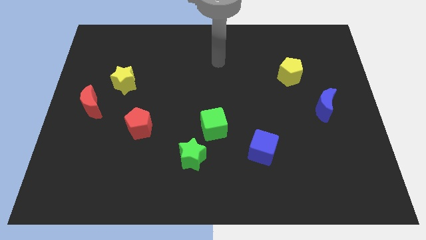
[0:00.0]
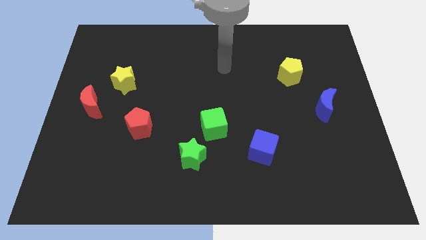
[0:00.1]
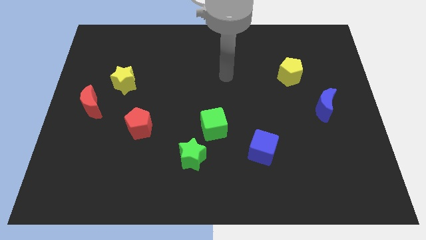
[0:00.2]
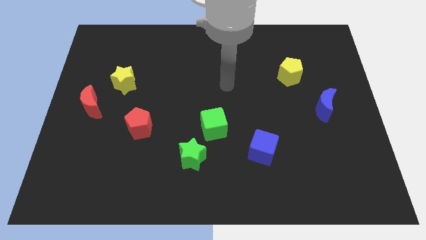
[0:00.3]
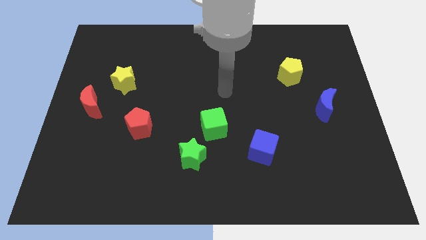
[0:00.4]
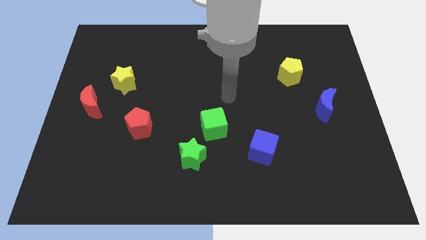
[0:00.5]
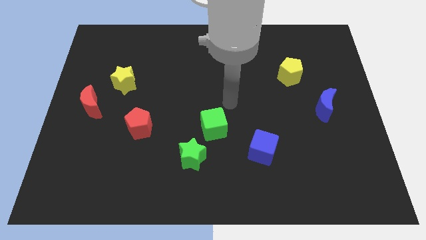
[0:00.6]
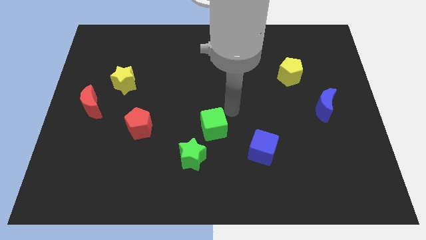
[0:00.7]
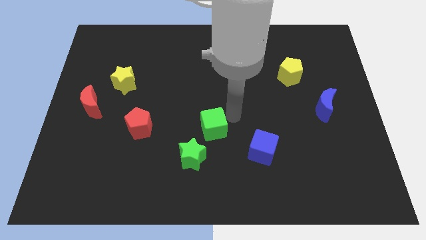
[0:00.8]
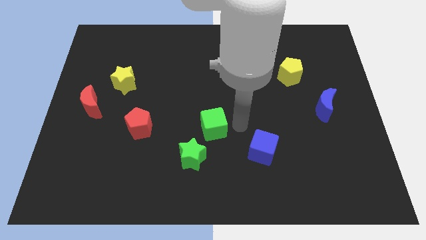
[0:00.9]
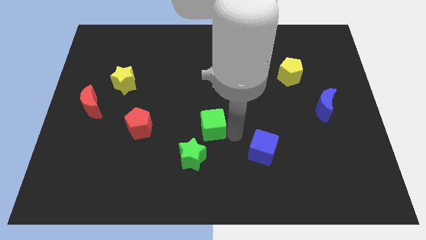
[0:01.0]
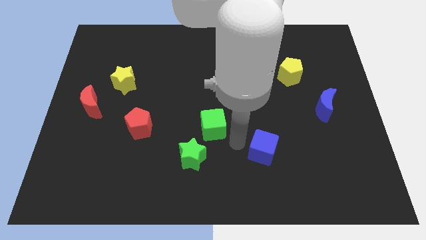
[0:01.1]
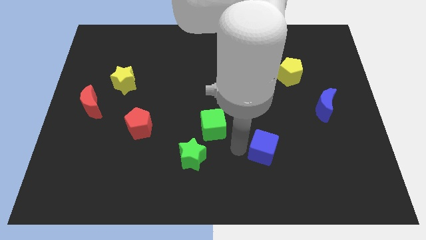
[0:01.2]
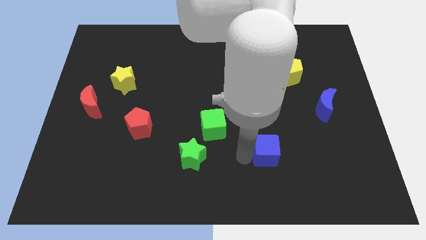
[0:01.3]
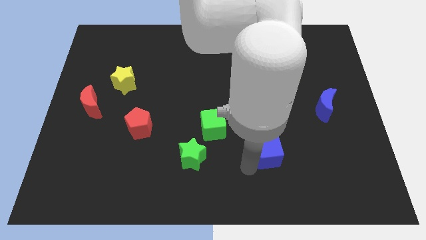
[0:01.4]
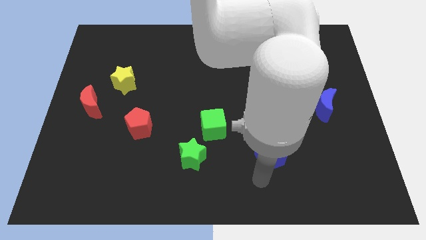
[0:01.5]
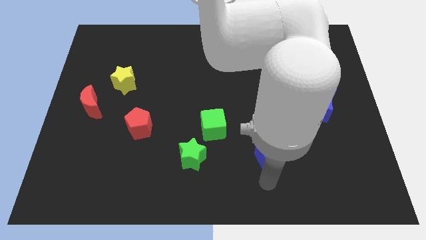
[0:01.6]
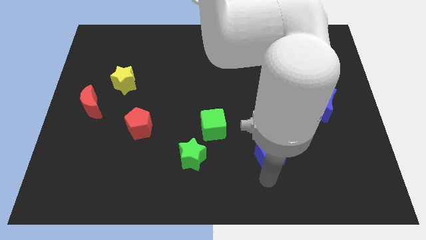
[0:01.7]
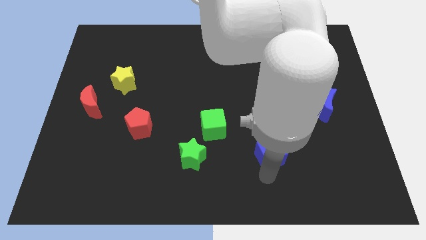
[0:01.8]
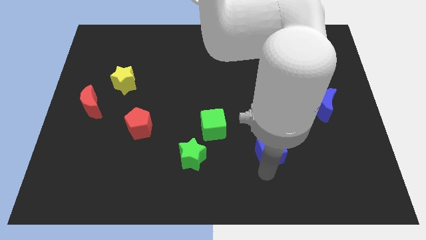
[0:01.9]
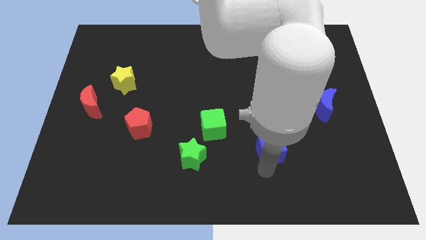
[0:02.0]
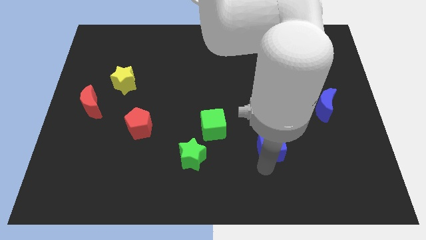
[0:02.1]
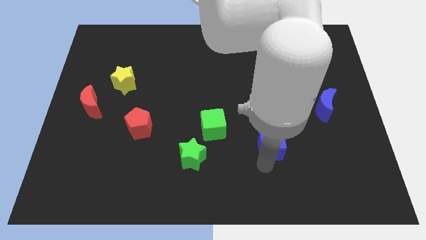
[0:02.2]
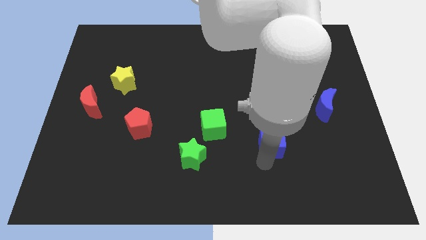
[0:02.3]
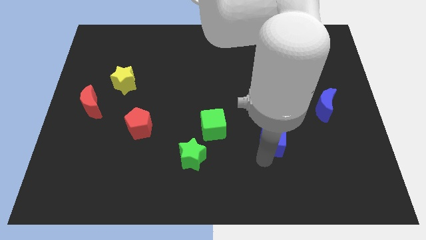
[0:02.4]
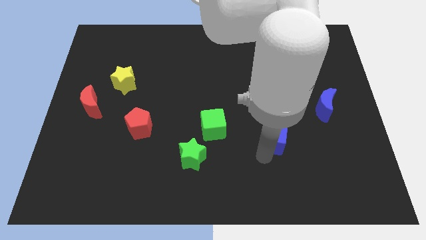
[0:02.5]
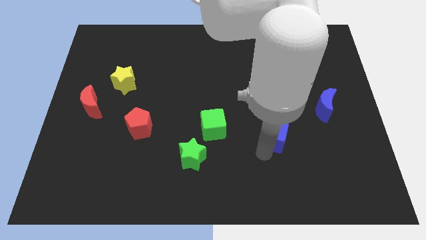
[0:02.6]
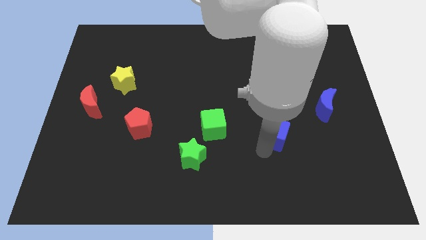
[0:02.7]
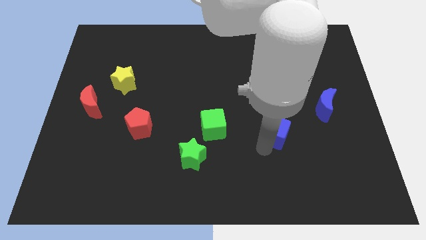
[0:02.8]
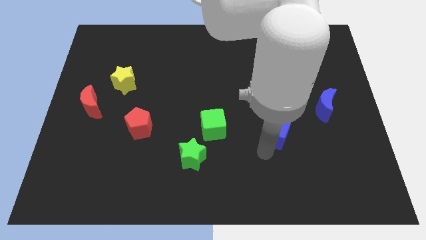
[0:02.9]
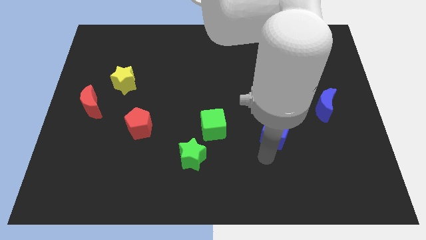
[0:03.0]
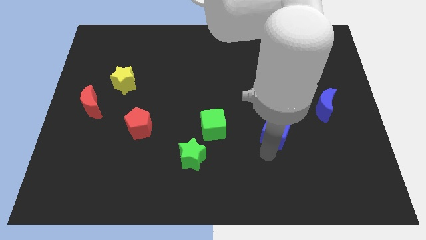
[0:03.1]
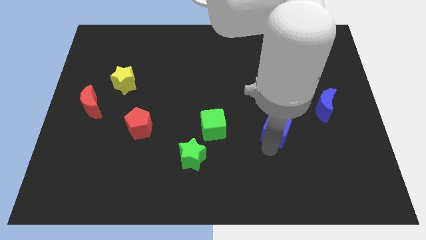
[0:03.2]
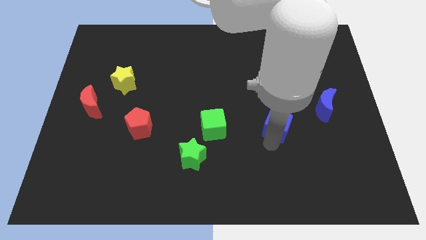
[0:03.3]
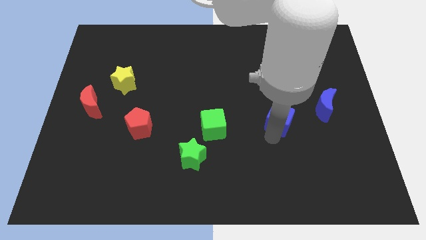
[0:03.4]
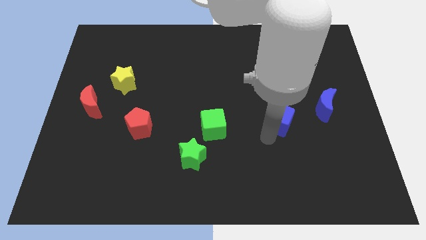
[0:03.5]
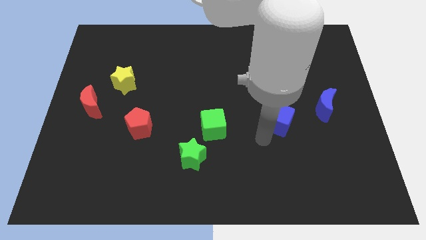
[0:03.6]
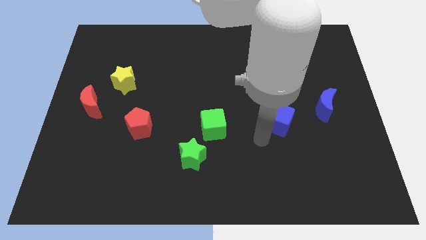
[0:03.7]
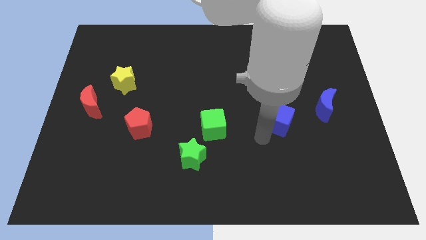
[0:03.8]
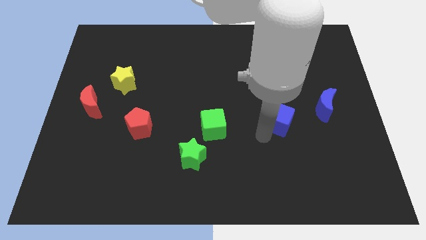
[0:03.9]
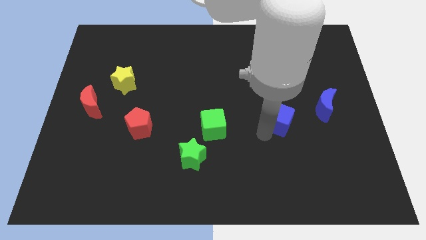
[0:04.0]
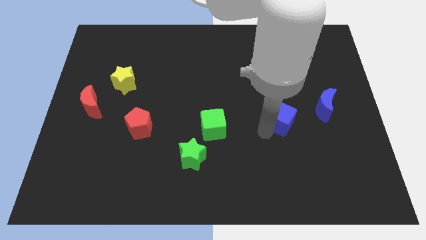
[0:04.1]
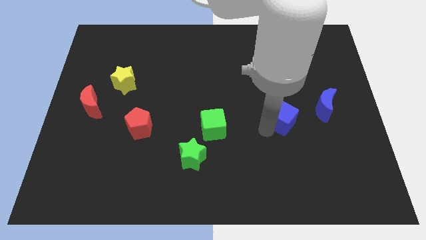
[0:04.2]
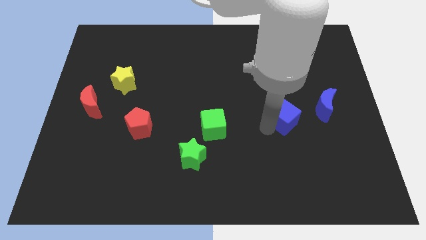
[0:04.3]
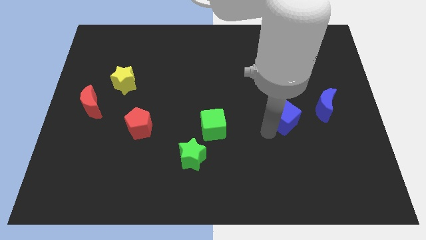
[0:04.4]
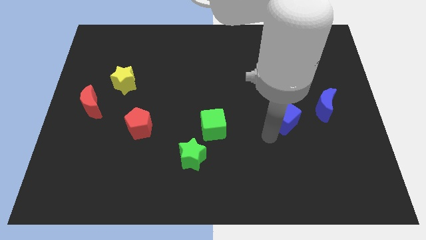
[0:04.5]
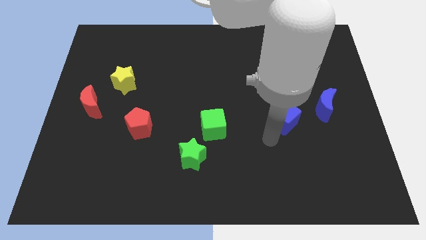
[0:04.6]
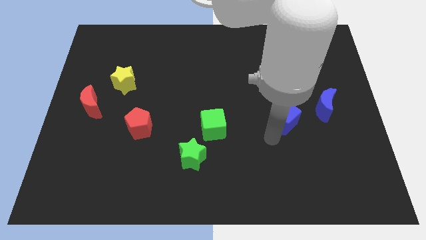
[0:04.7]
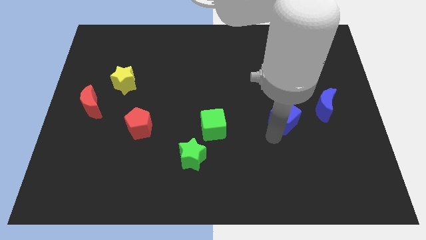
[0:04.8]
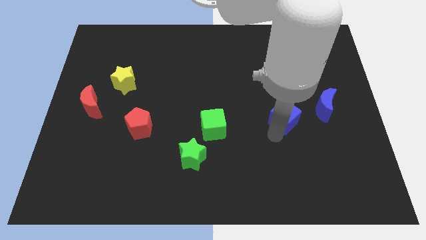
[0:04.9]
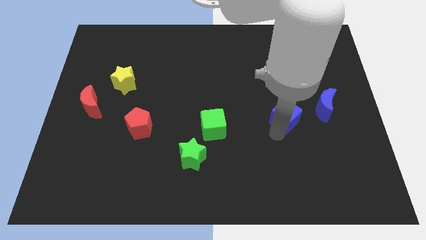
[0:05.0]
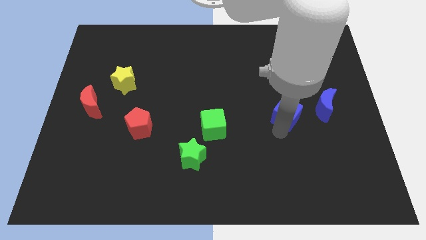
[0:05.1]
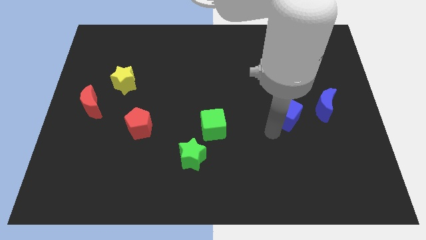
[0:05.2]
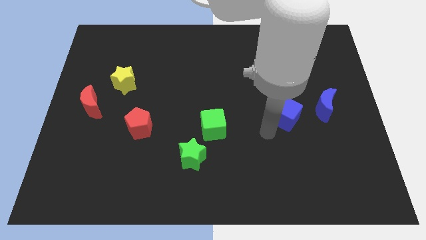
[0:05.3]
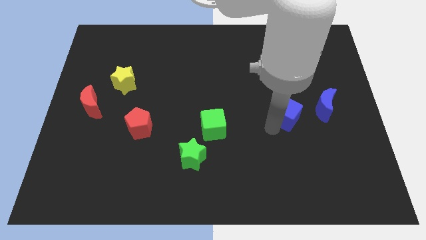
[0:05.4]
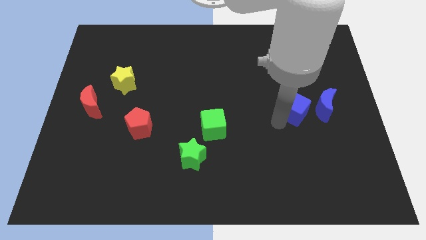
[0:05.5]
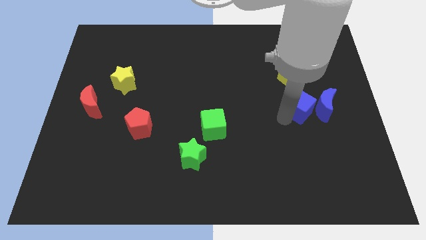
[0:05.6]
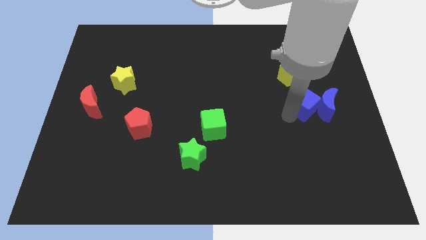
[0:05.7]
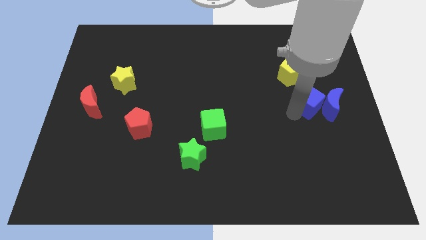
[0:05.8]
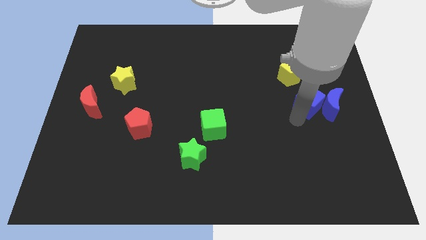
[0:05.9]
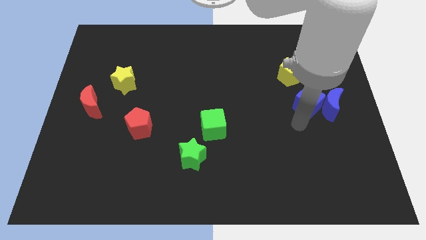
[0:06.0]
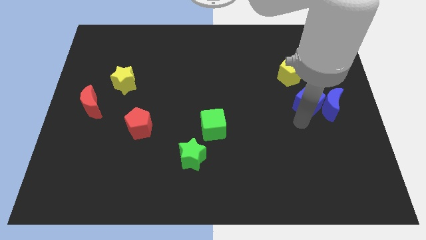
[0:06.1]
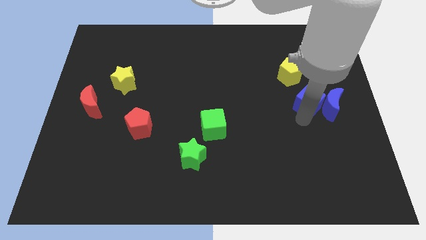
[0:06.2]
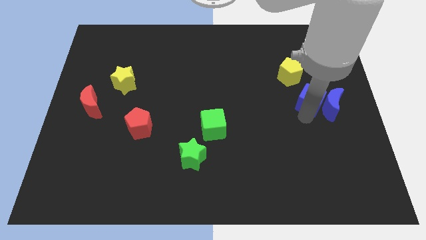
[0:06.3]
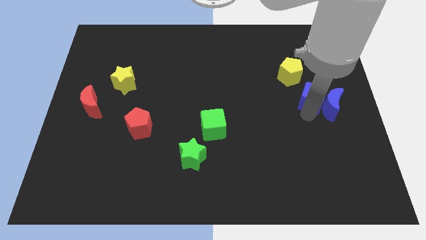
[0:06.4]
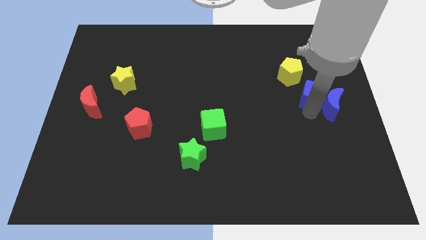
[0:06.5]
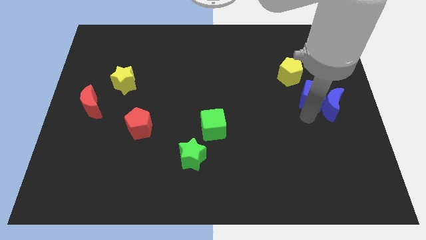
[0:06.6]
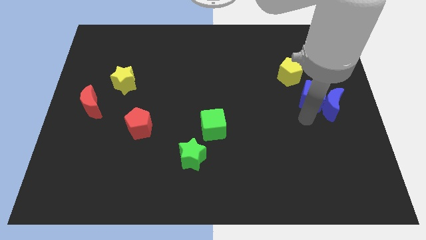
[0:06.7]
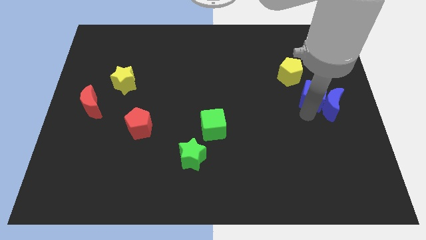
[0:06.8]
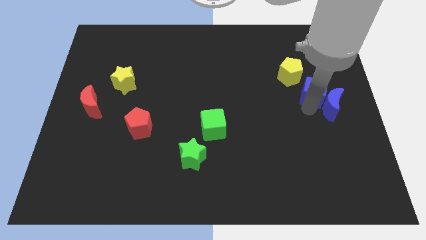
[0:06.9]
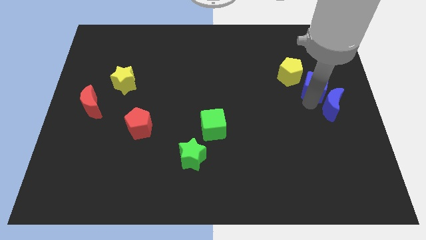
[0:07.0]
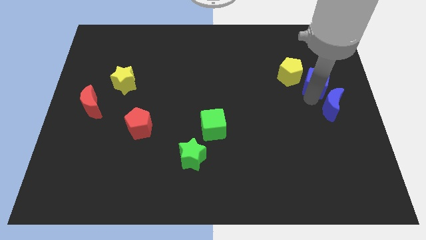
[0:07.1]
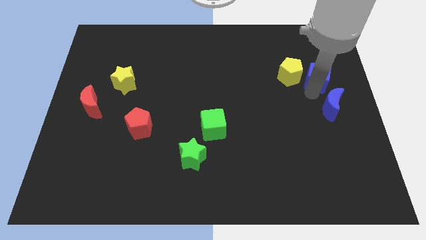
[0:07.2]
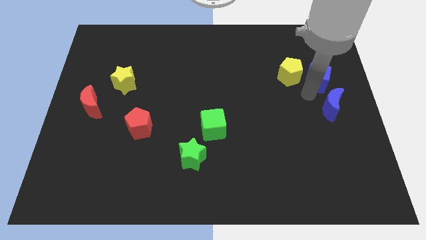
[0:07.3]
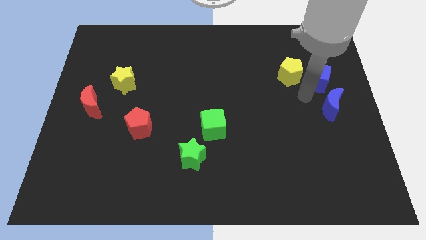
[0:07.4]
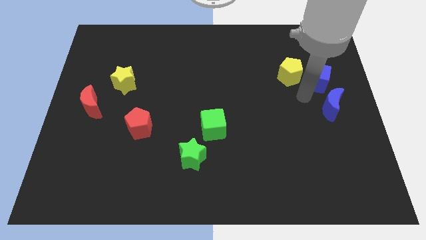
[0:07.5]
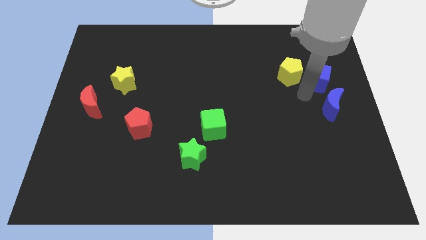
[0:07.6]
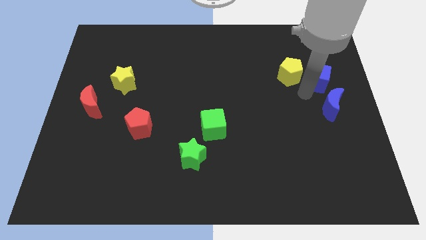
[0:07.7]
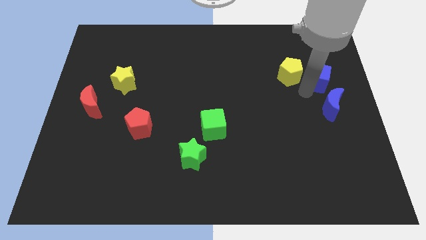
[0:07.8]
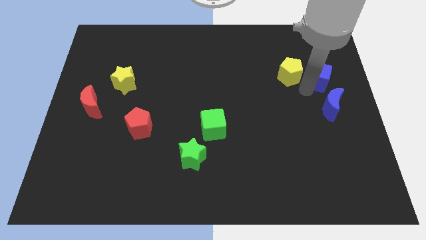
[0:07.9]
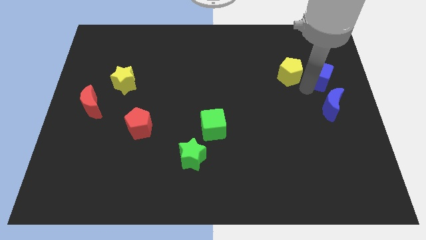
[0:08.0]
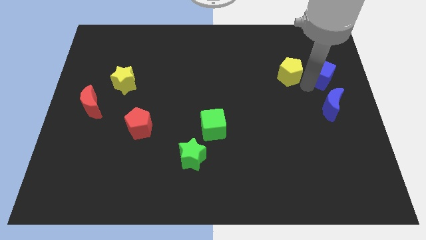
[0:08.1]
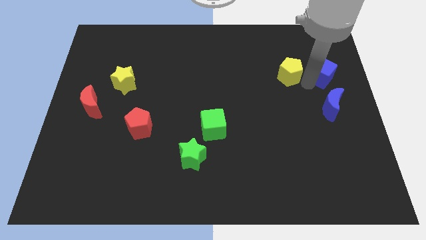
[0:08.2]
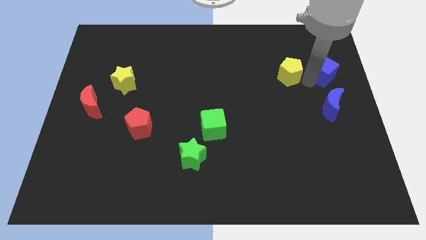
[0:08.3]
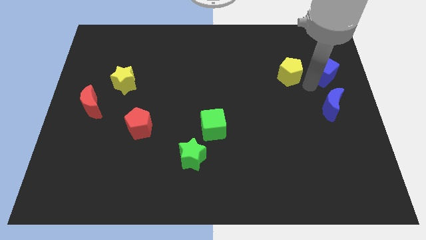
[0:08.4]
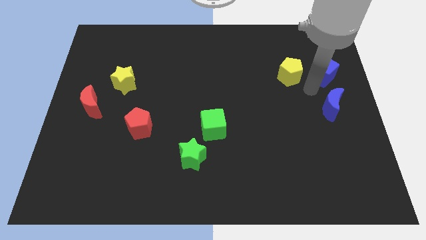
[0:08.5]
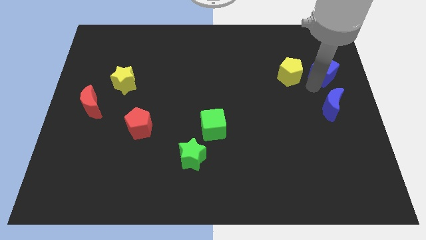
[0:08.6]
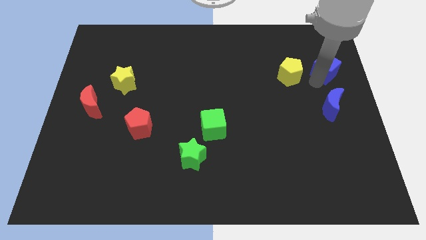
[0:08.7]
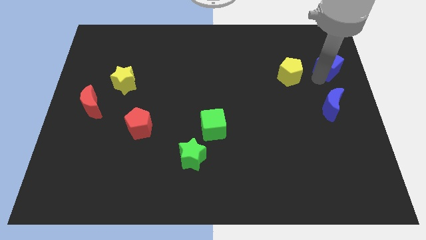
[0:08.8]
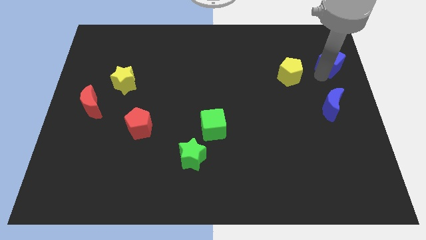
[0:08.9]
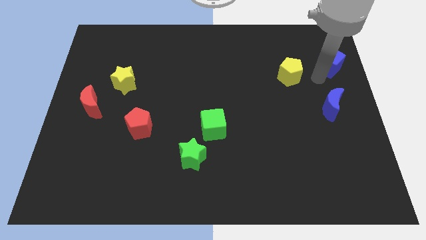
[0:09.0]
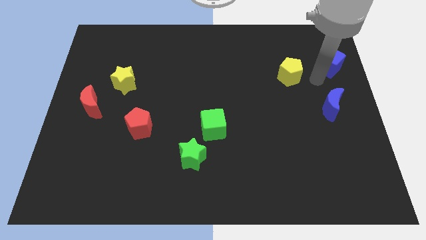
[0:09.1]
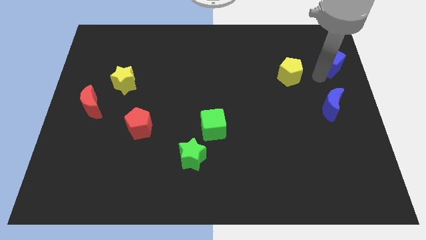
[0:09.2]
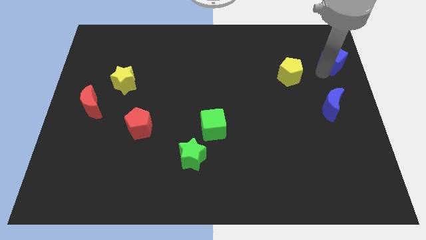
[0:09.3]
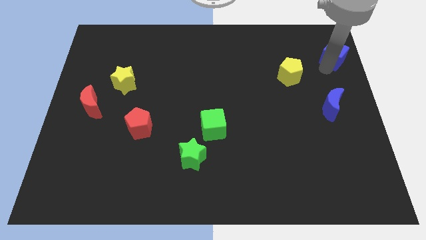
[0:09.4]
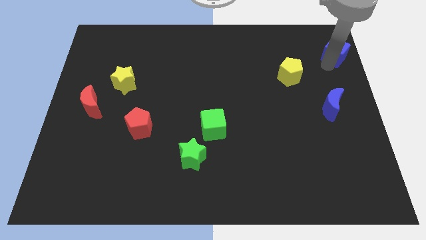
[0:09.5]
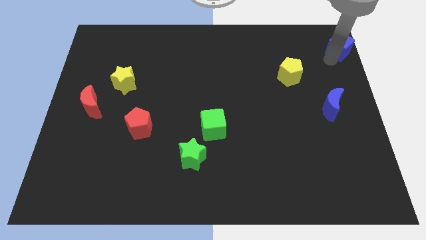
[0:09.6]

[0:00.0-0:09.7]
slide the blue cube to the top right of the board
